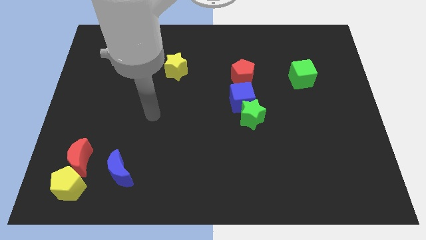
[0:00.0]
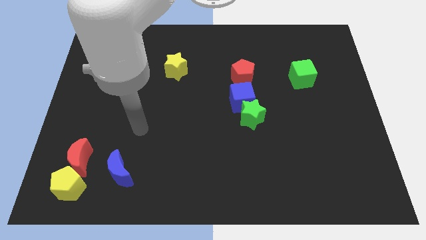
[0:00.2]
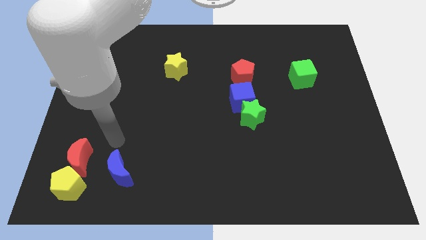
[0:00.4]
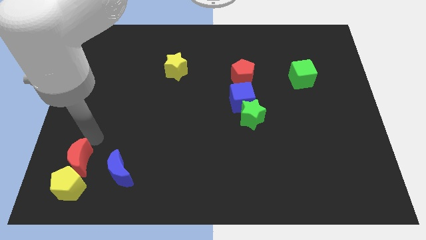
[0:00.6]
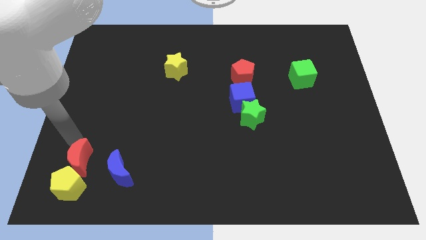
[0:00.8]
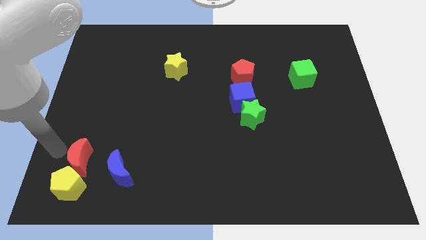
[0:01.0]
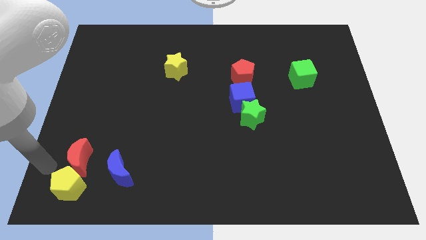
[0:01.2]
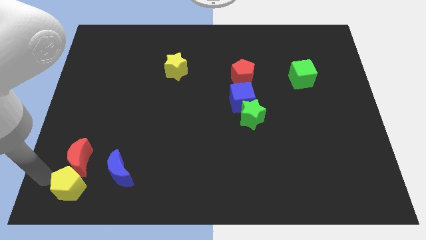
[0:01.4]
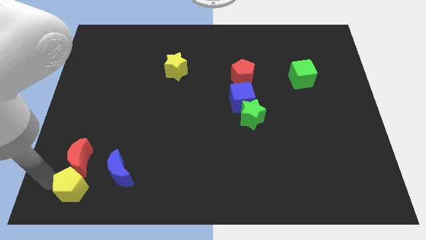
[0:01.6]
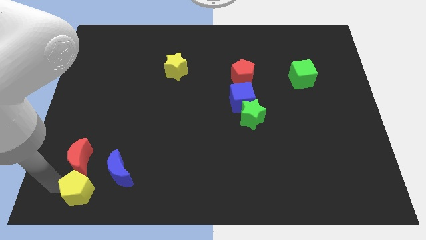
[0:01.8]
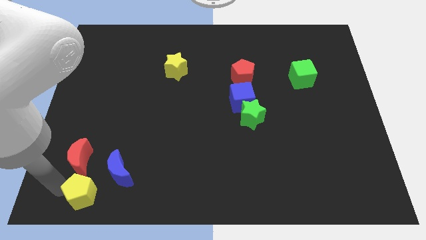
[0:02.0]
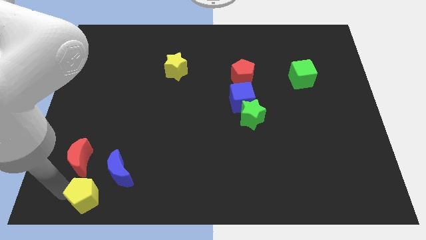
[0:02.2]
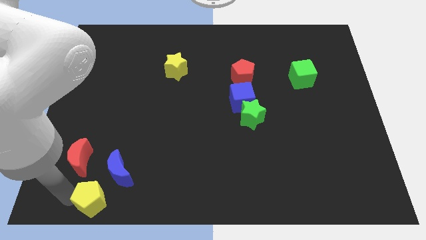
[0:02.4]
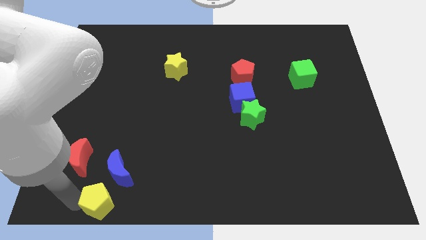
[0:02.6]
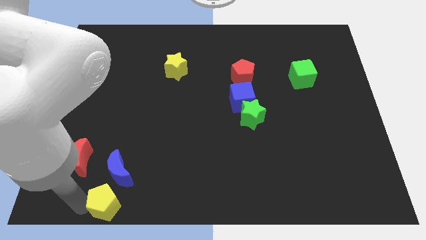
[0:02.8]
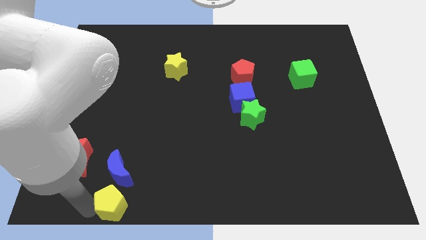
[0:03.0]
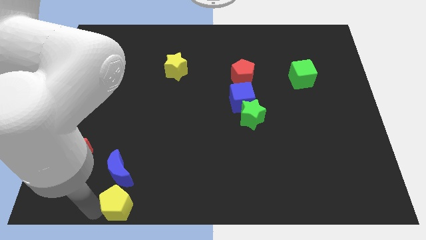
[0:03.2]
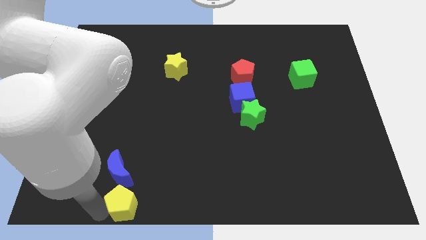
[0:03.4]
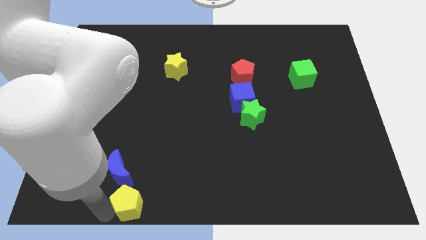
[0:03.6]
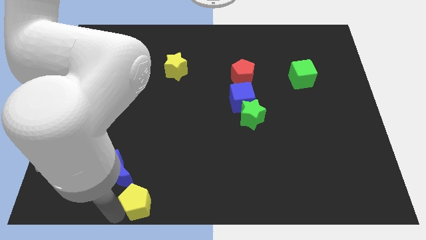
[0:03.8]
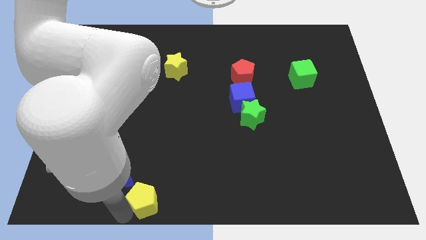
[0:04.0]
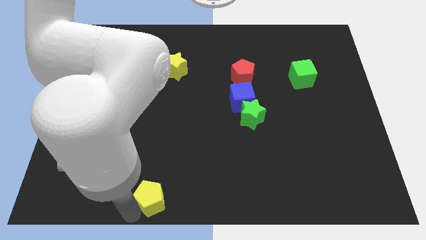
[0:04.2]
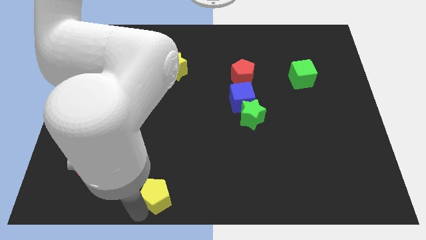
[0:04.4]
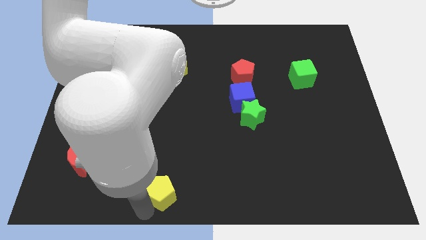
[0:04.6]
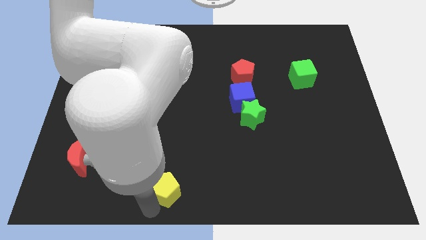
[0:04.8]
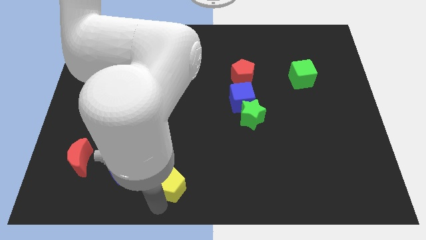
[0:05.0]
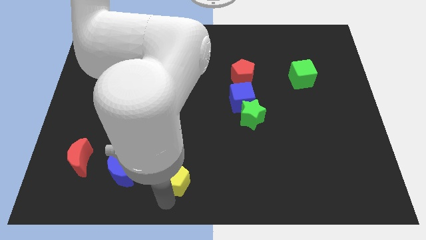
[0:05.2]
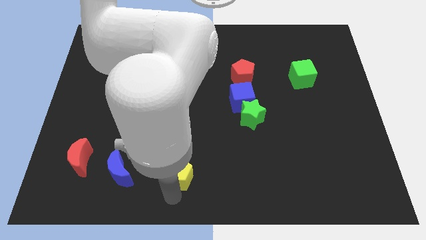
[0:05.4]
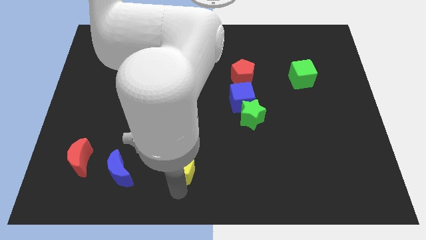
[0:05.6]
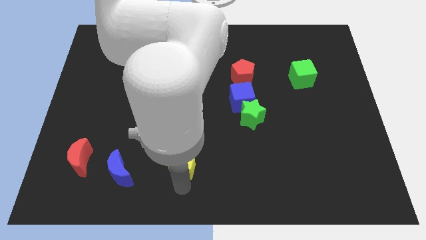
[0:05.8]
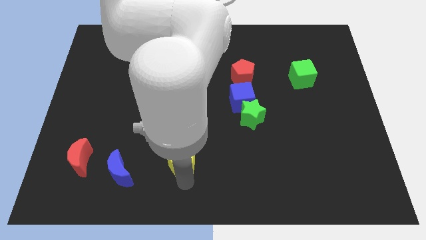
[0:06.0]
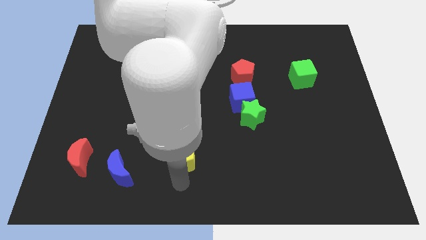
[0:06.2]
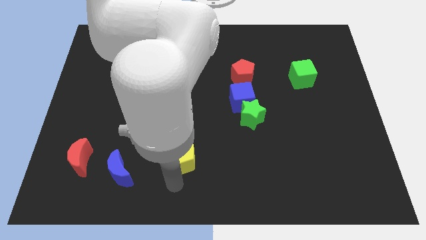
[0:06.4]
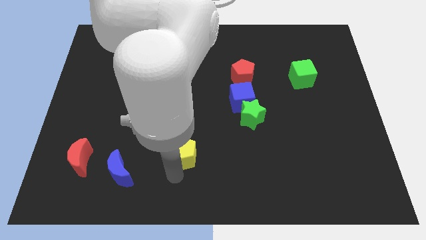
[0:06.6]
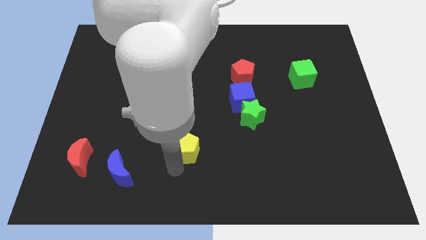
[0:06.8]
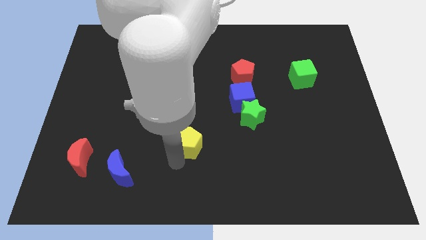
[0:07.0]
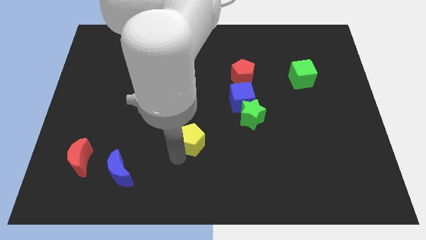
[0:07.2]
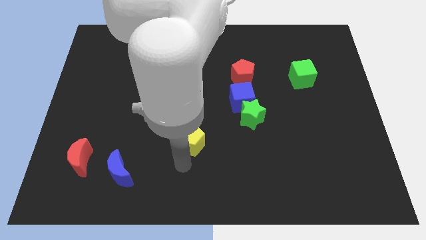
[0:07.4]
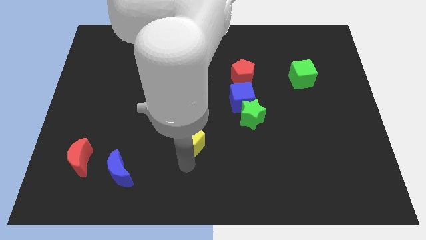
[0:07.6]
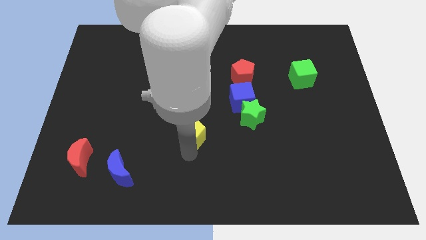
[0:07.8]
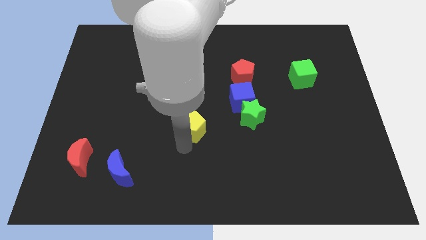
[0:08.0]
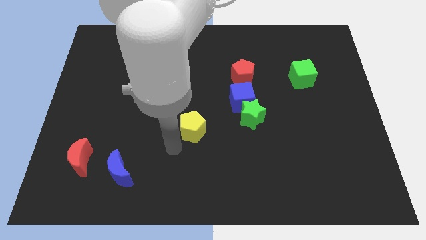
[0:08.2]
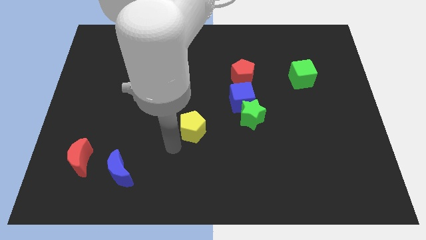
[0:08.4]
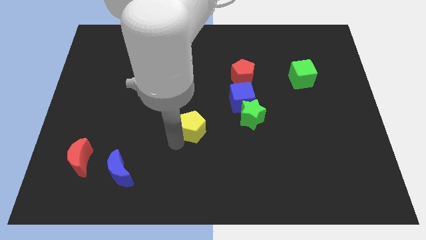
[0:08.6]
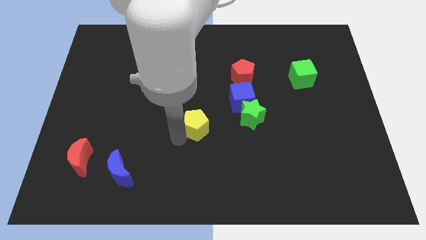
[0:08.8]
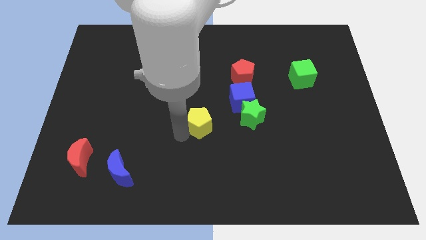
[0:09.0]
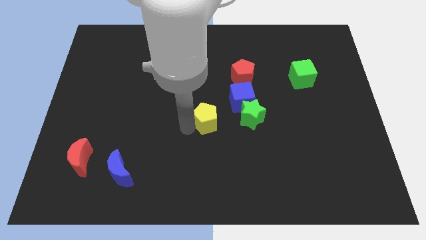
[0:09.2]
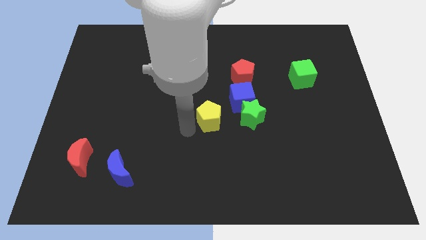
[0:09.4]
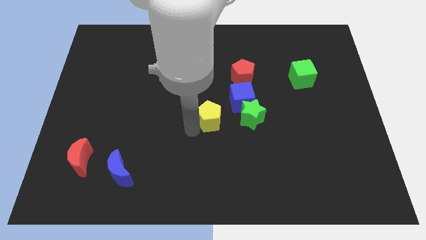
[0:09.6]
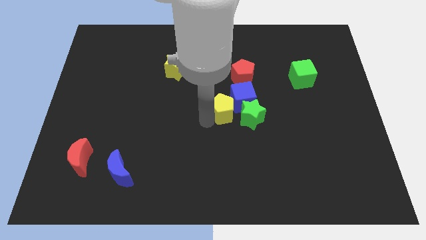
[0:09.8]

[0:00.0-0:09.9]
move the yellow pentagon close to the blue cube

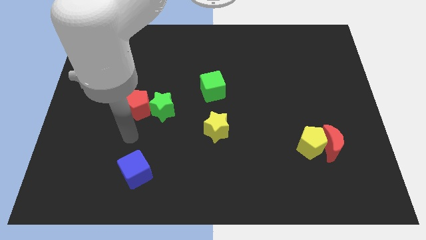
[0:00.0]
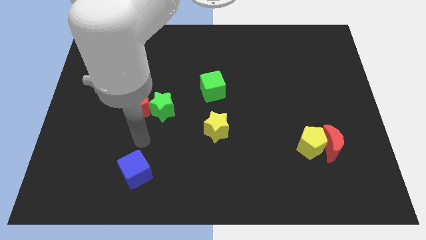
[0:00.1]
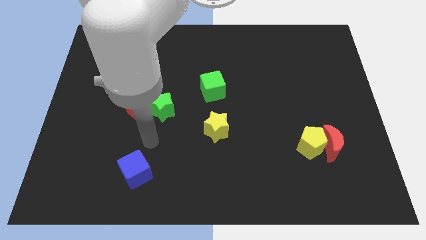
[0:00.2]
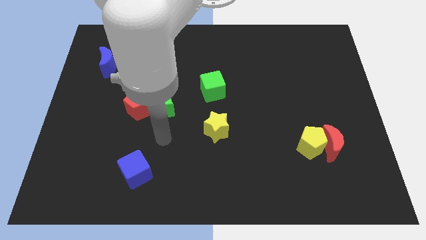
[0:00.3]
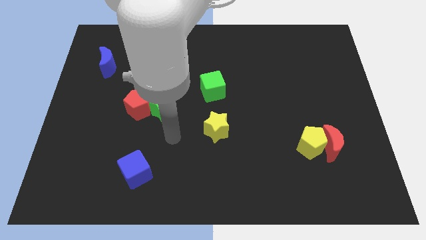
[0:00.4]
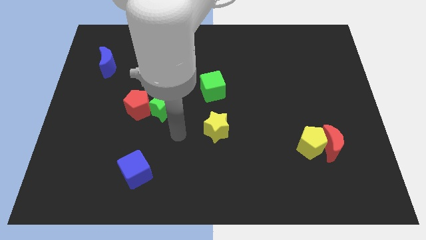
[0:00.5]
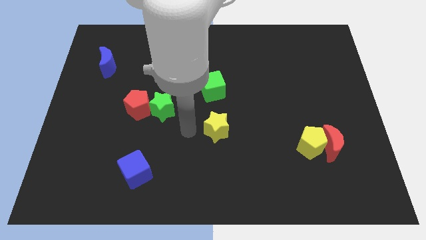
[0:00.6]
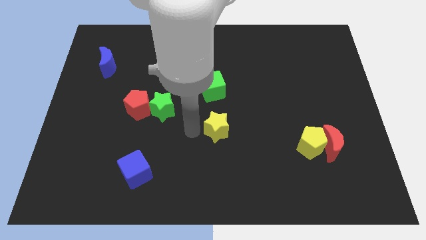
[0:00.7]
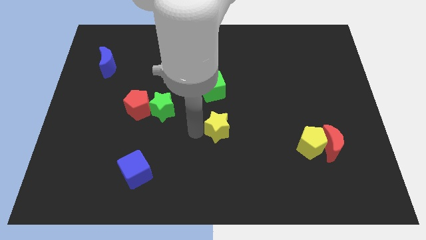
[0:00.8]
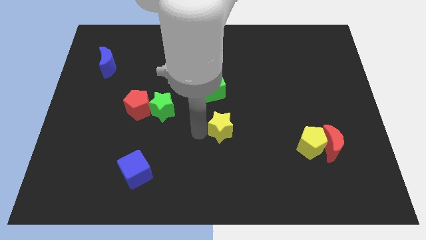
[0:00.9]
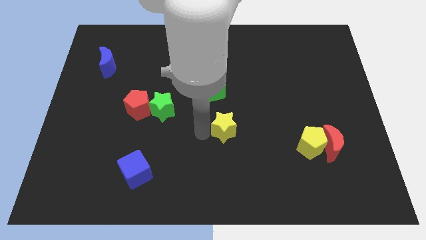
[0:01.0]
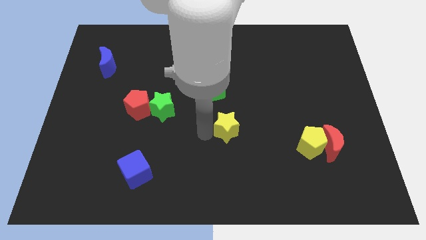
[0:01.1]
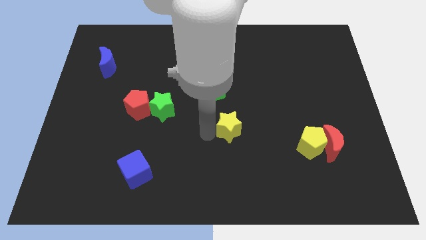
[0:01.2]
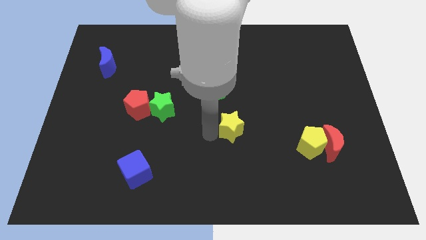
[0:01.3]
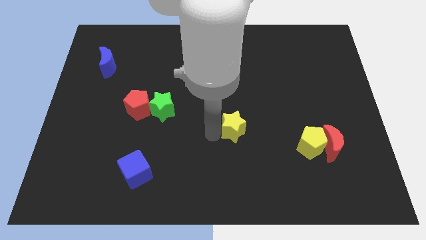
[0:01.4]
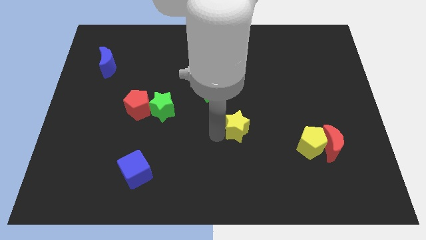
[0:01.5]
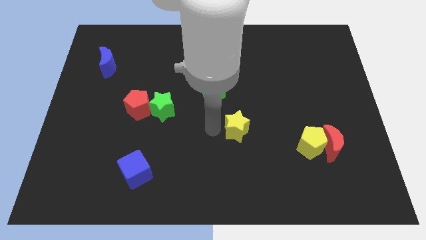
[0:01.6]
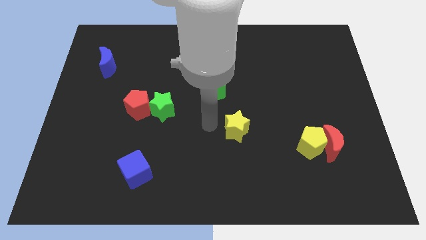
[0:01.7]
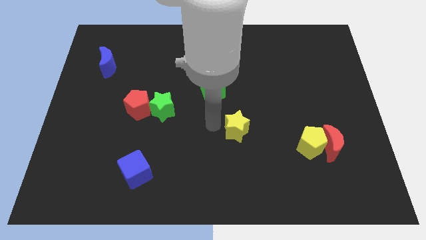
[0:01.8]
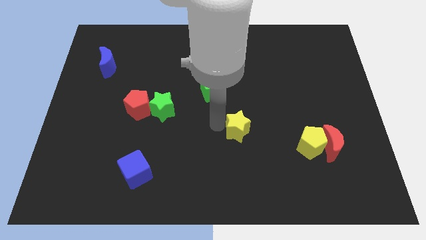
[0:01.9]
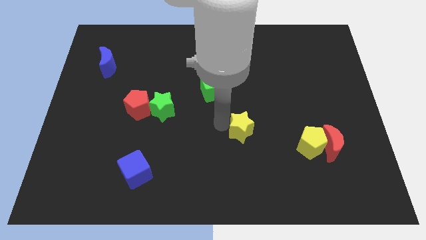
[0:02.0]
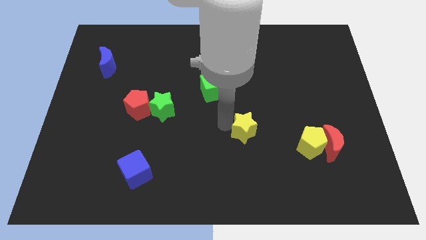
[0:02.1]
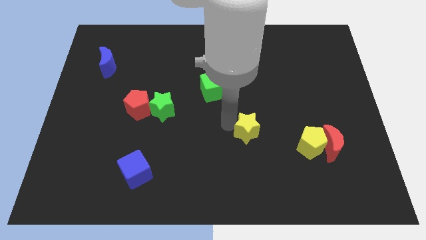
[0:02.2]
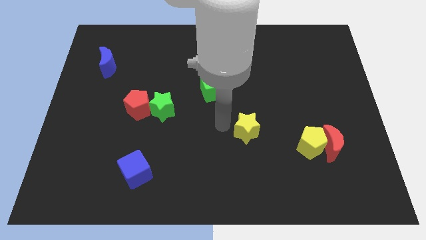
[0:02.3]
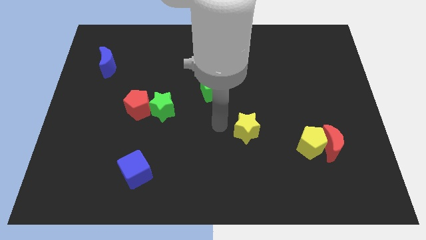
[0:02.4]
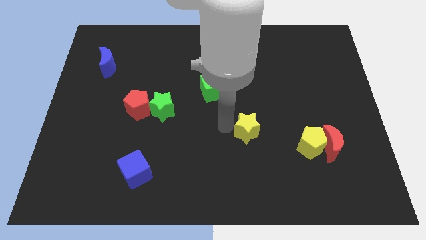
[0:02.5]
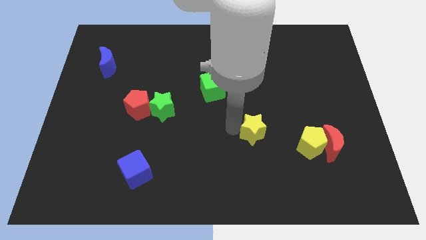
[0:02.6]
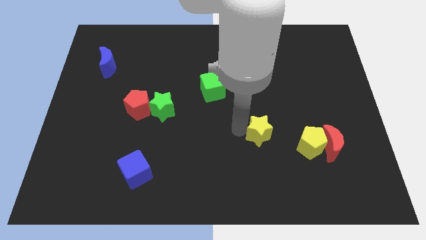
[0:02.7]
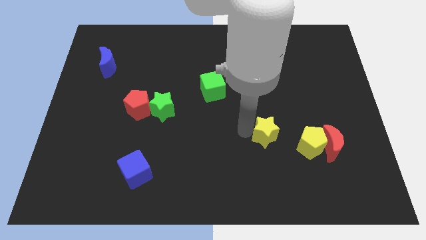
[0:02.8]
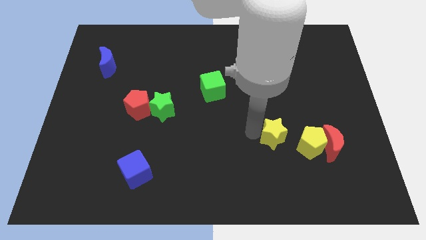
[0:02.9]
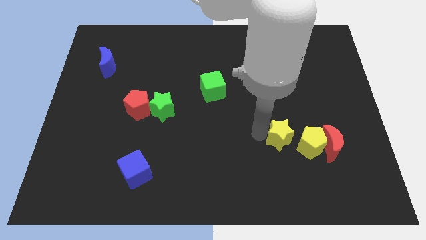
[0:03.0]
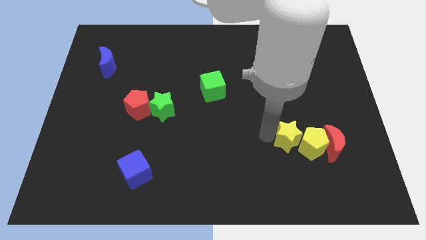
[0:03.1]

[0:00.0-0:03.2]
move the yellow star close to the yellow pentagon
